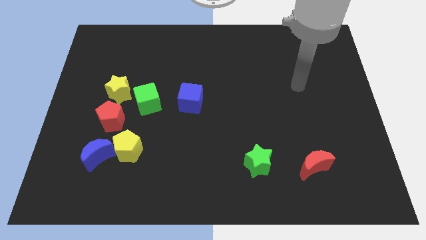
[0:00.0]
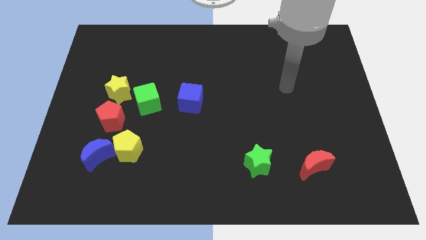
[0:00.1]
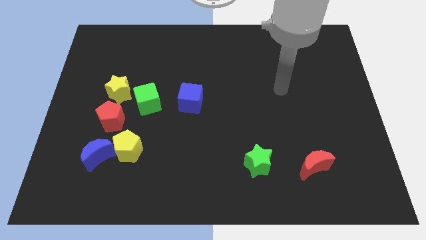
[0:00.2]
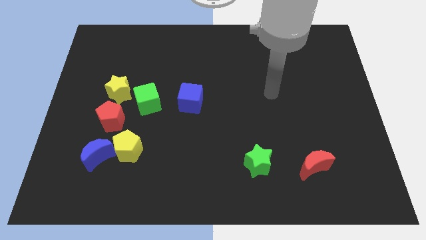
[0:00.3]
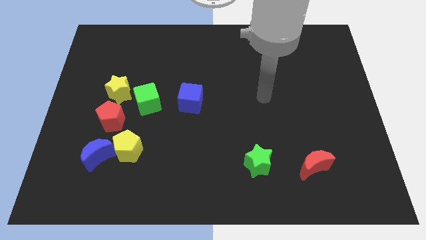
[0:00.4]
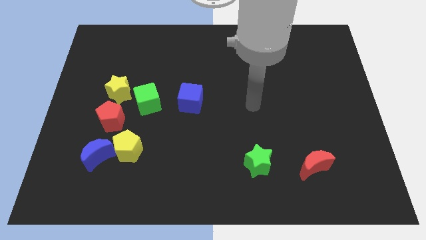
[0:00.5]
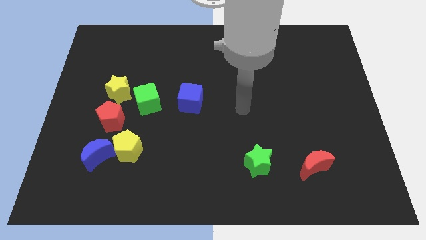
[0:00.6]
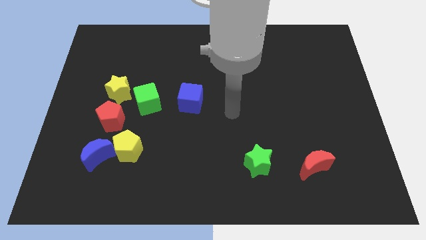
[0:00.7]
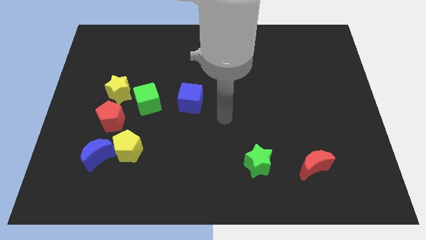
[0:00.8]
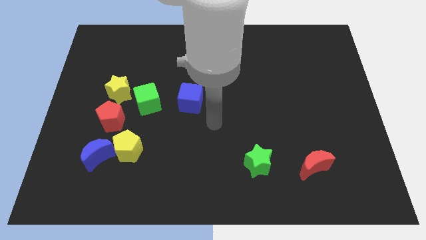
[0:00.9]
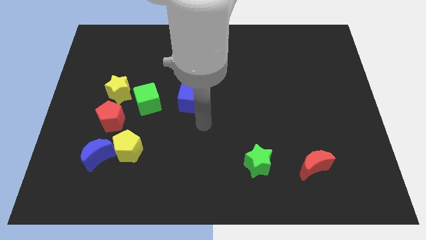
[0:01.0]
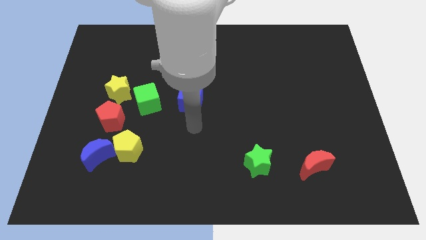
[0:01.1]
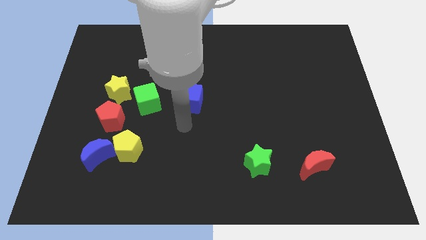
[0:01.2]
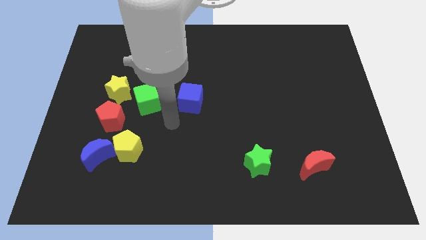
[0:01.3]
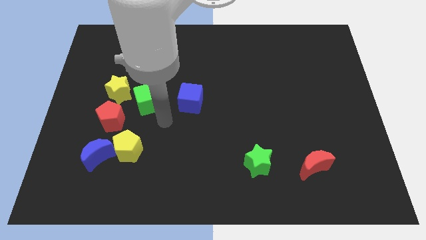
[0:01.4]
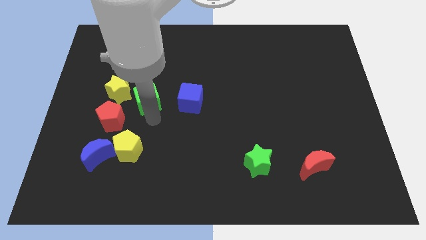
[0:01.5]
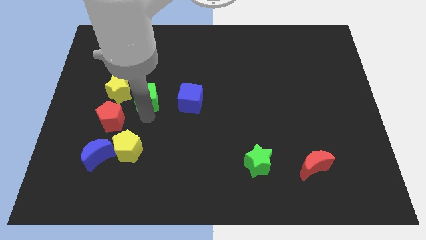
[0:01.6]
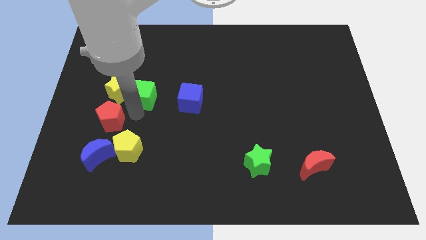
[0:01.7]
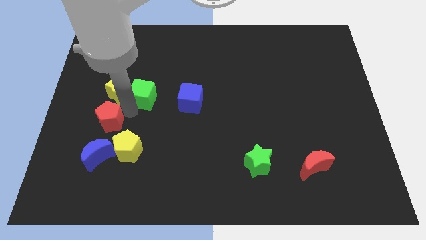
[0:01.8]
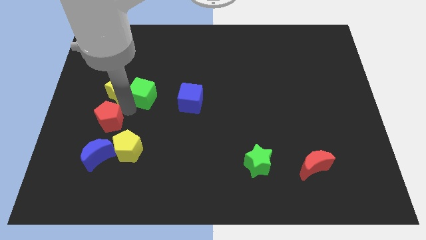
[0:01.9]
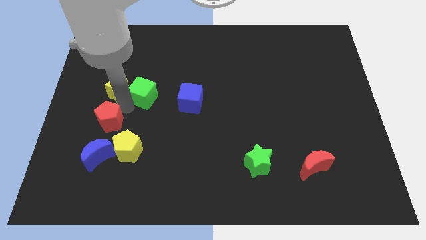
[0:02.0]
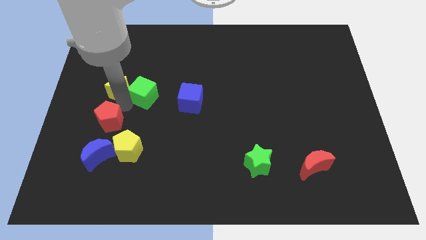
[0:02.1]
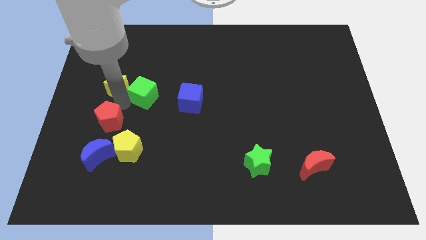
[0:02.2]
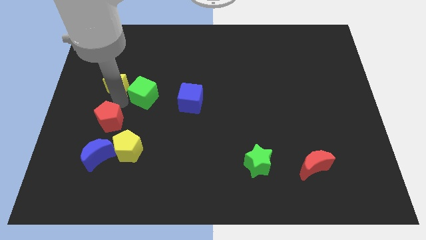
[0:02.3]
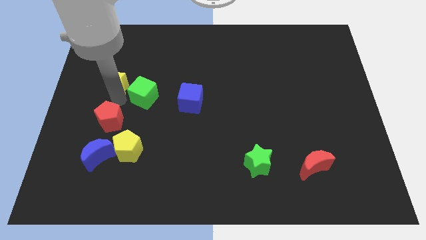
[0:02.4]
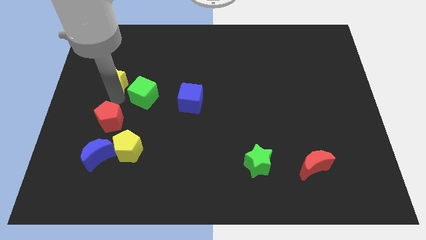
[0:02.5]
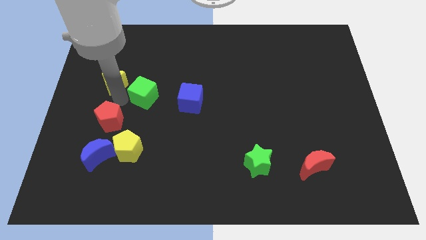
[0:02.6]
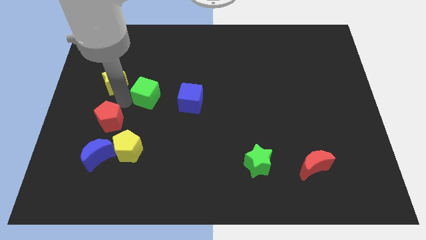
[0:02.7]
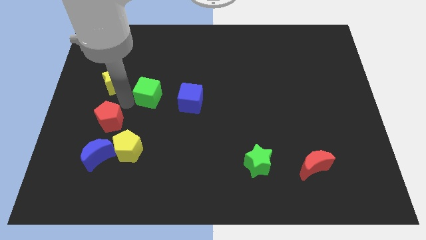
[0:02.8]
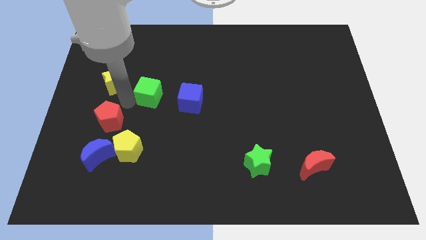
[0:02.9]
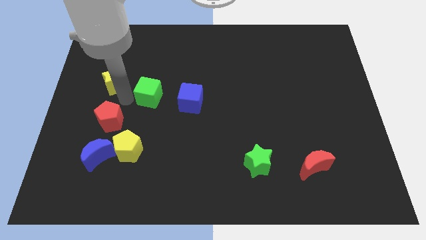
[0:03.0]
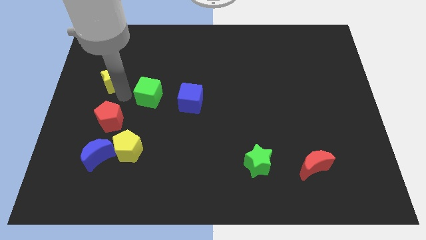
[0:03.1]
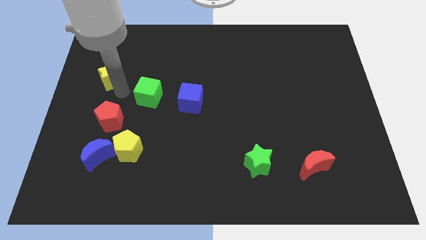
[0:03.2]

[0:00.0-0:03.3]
separate the yellow star from the green cube and red pentagon

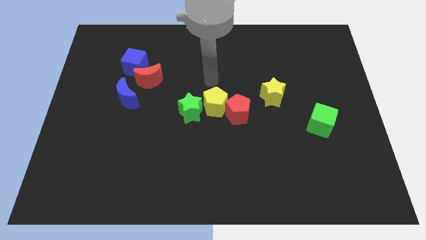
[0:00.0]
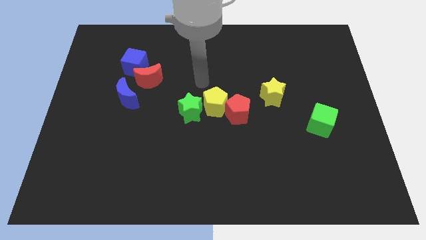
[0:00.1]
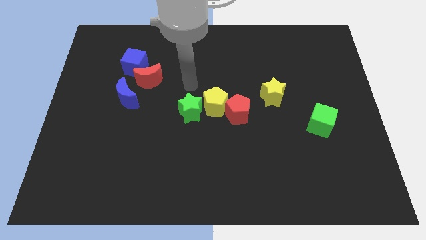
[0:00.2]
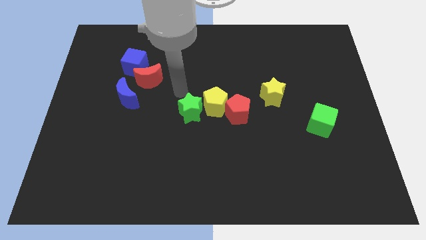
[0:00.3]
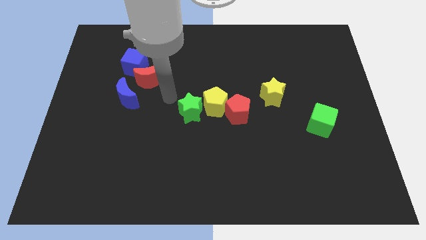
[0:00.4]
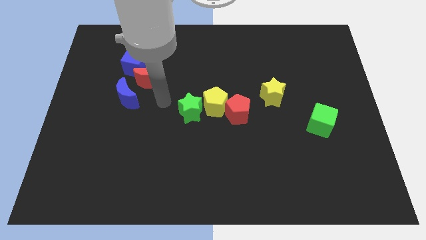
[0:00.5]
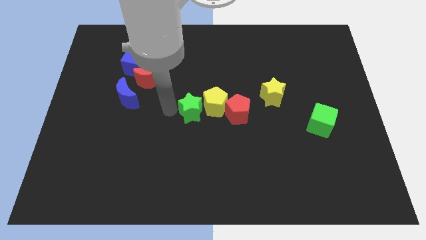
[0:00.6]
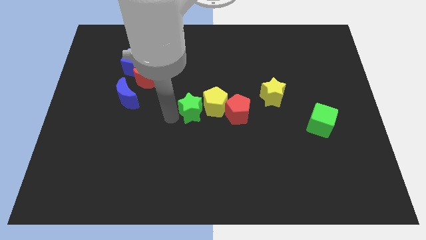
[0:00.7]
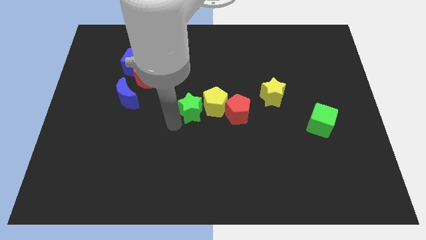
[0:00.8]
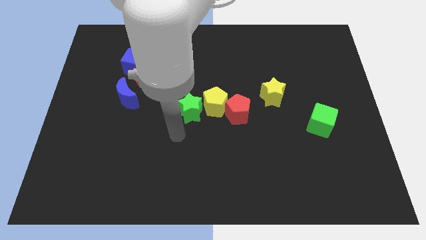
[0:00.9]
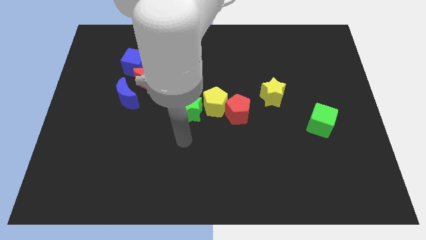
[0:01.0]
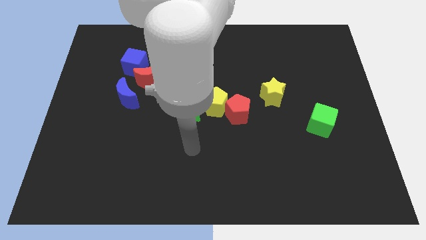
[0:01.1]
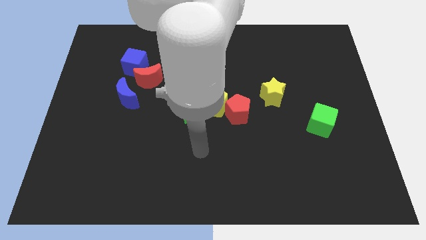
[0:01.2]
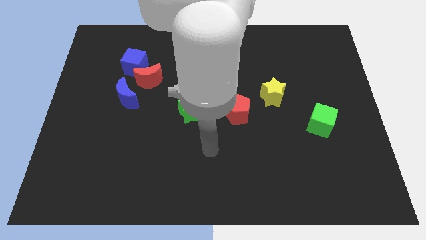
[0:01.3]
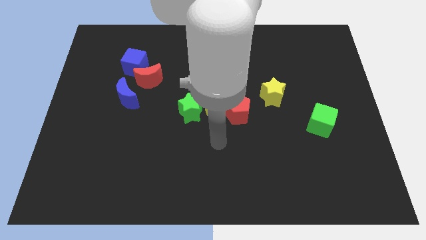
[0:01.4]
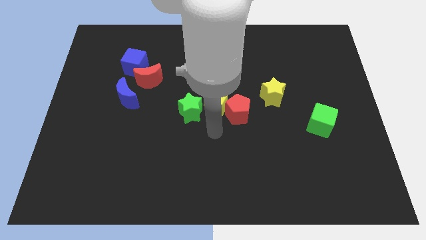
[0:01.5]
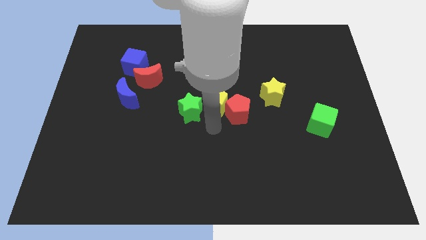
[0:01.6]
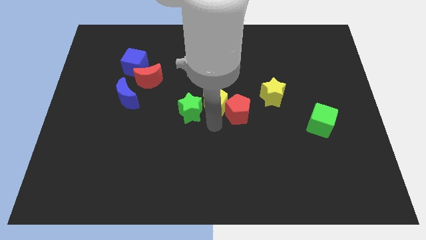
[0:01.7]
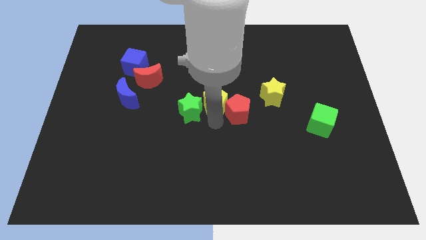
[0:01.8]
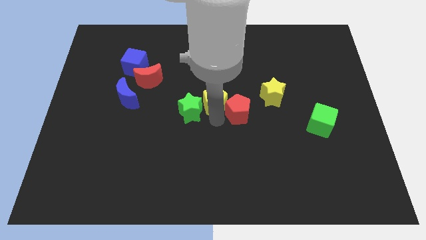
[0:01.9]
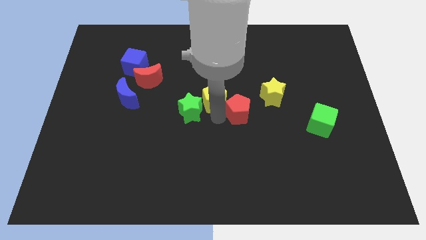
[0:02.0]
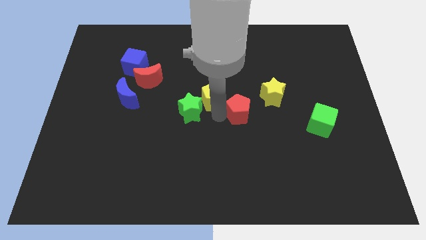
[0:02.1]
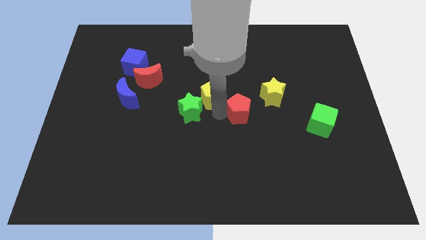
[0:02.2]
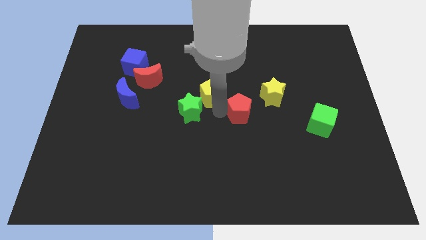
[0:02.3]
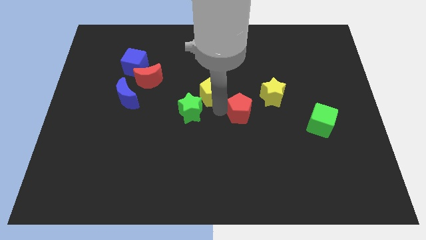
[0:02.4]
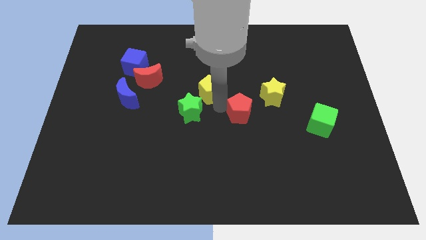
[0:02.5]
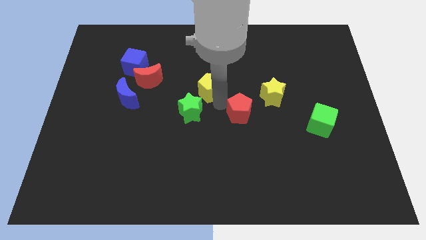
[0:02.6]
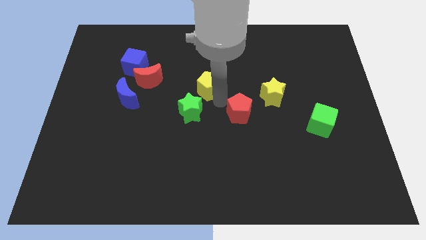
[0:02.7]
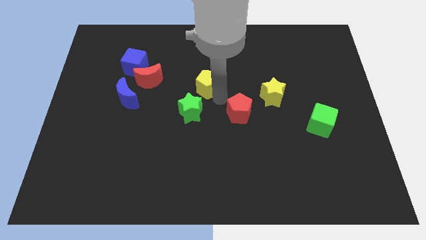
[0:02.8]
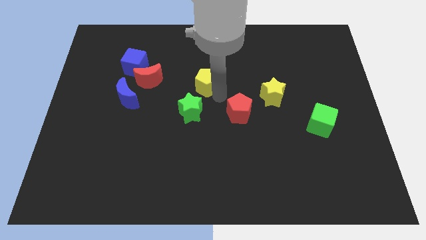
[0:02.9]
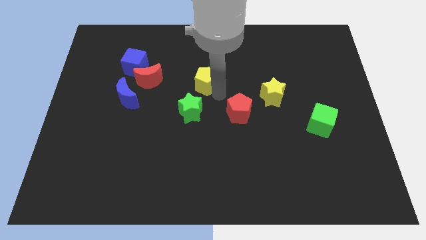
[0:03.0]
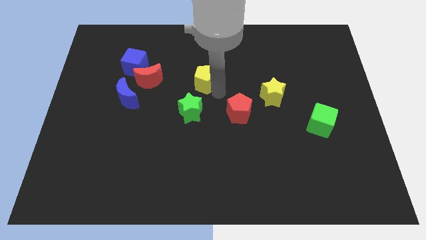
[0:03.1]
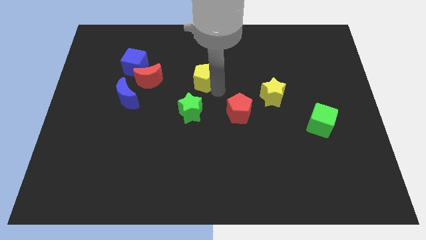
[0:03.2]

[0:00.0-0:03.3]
separate the yellow pentagon from the red pentagon and green star

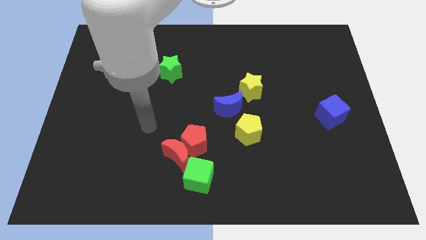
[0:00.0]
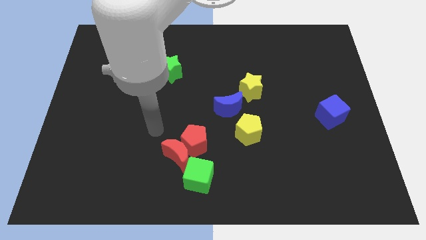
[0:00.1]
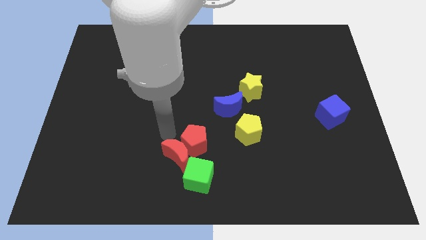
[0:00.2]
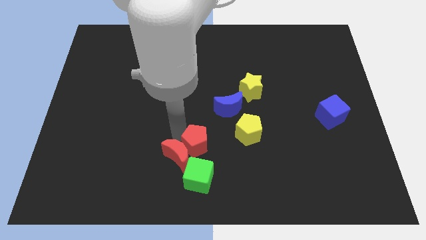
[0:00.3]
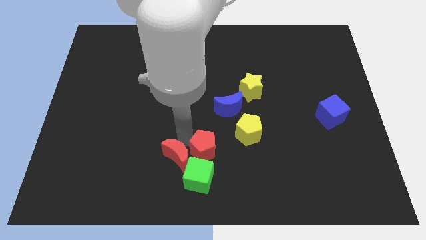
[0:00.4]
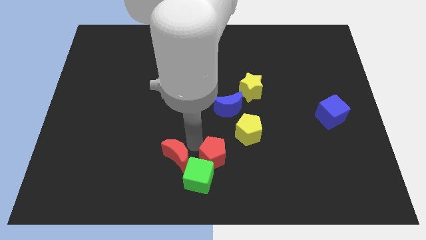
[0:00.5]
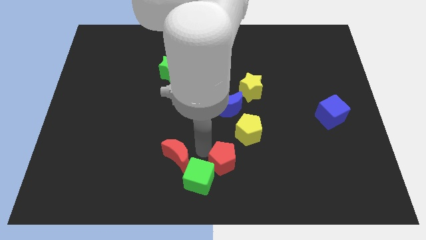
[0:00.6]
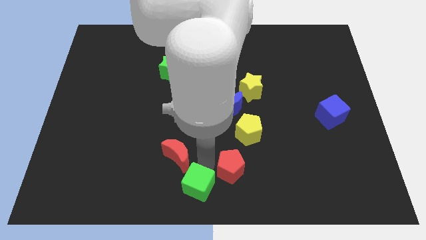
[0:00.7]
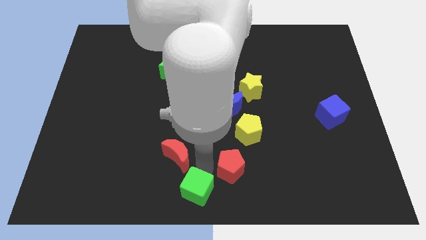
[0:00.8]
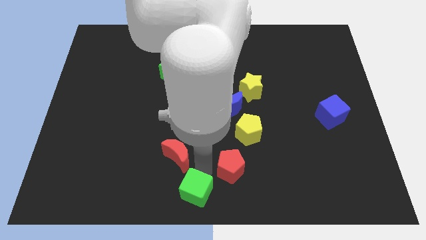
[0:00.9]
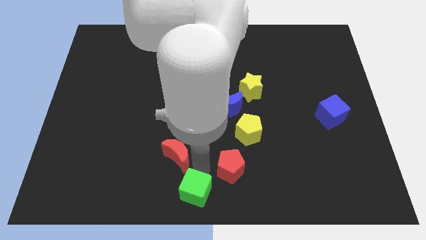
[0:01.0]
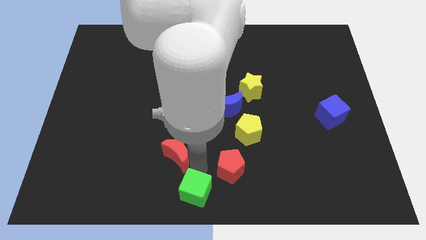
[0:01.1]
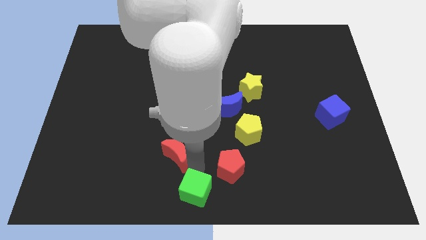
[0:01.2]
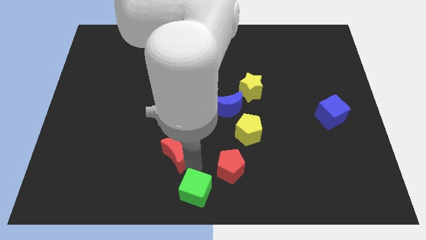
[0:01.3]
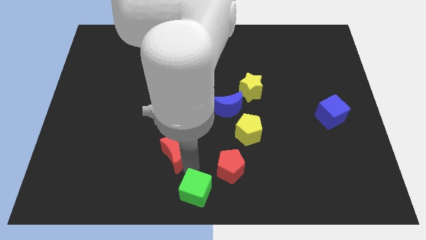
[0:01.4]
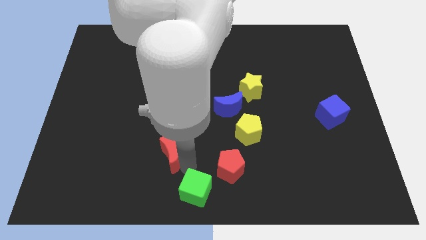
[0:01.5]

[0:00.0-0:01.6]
move the red moon away from the red pentagon and green cube

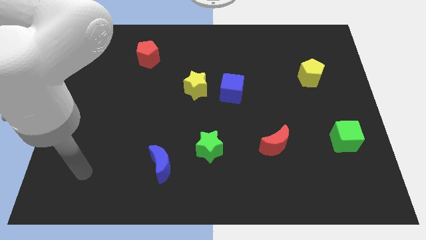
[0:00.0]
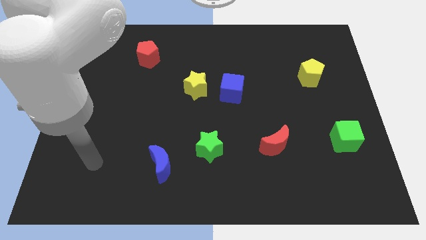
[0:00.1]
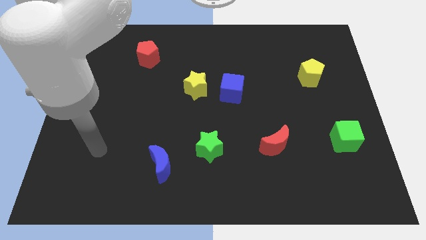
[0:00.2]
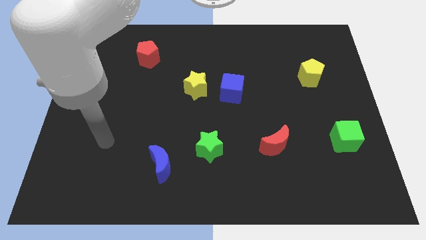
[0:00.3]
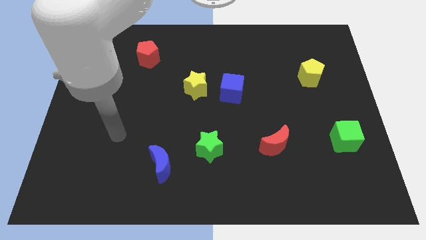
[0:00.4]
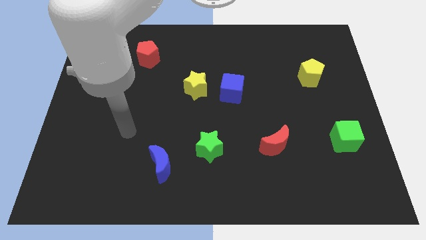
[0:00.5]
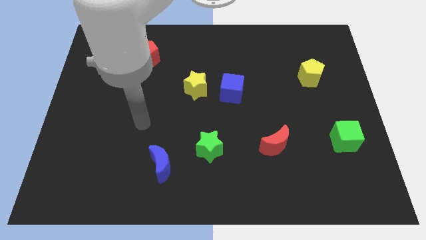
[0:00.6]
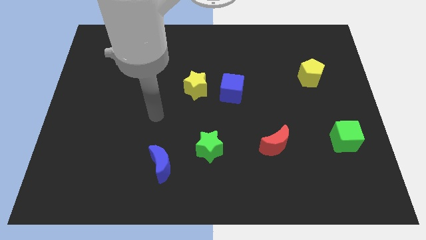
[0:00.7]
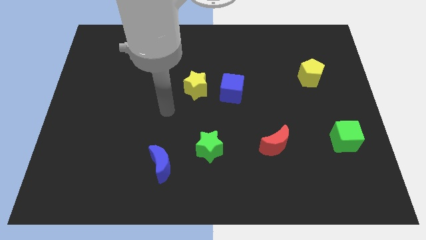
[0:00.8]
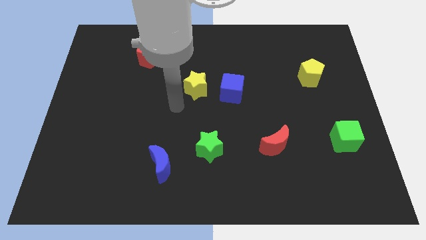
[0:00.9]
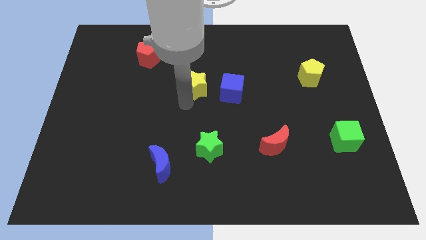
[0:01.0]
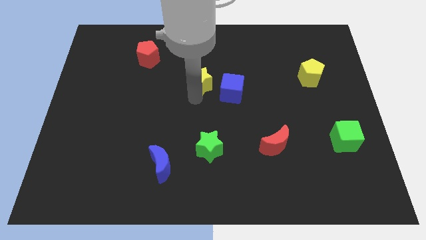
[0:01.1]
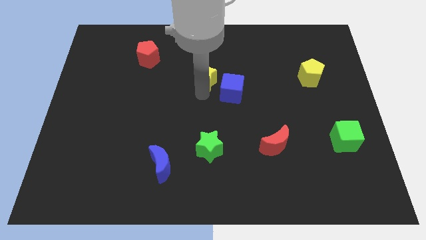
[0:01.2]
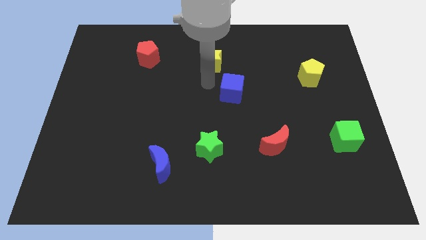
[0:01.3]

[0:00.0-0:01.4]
separate the blue cube from the yellow star
